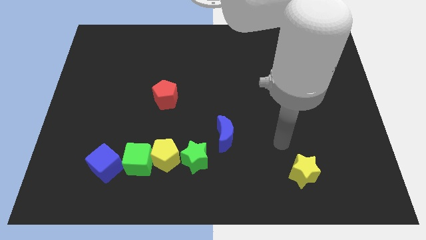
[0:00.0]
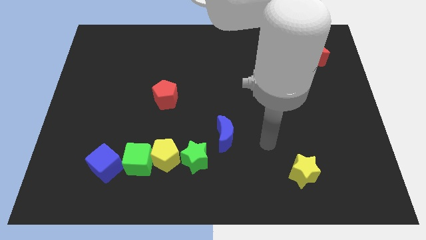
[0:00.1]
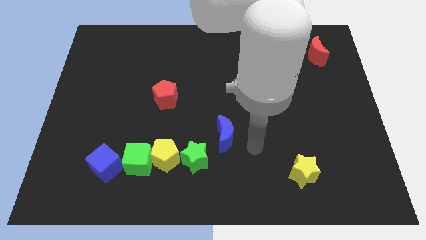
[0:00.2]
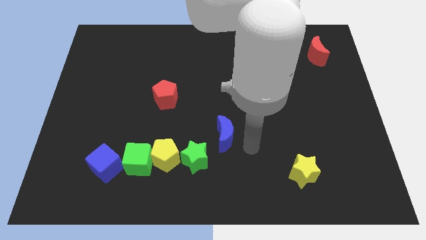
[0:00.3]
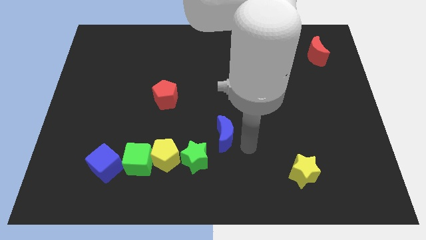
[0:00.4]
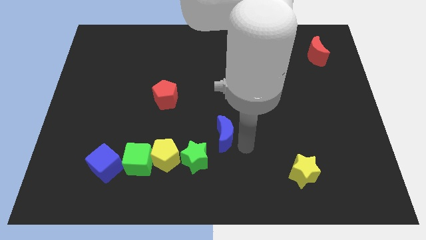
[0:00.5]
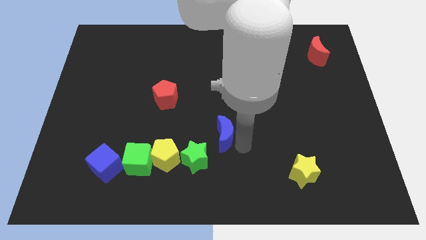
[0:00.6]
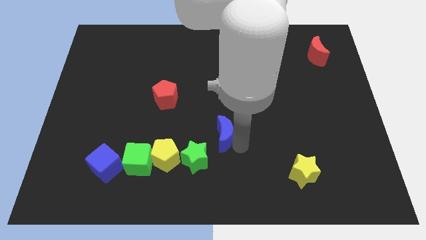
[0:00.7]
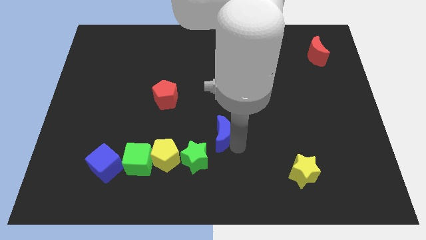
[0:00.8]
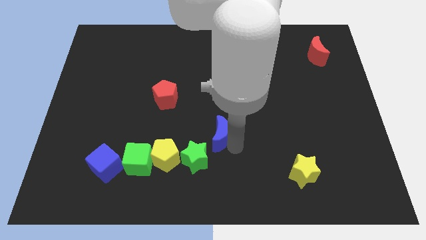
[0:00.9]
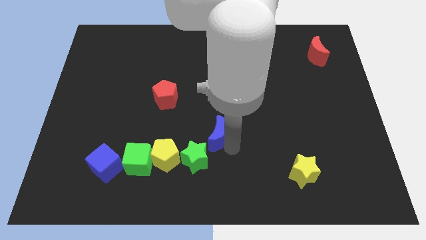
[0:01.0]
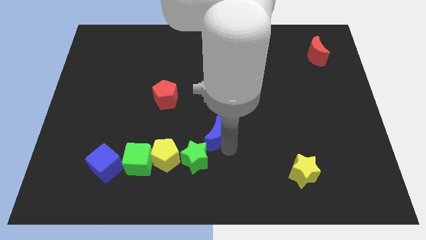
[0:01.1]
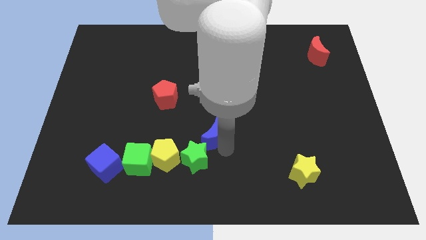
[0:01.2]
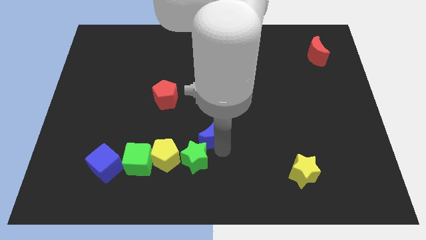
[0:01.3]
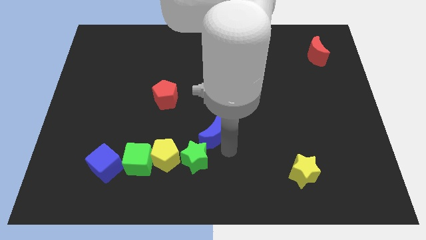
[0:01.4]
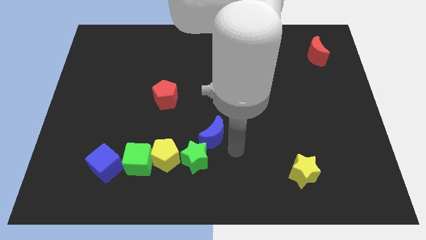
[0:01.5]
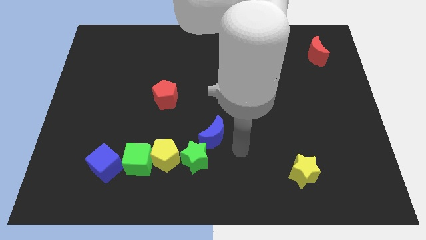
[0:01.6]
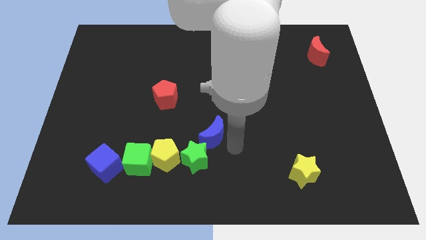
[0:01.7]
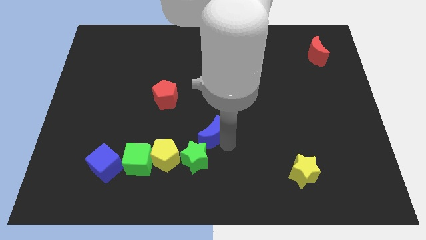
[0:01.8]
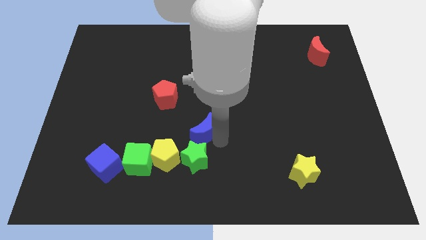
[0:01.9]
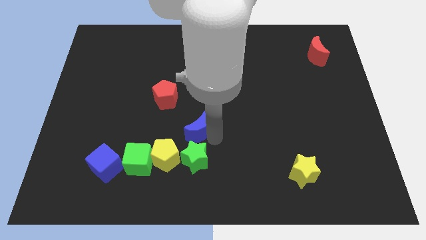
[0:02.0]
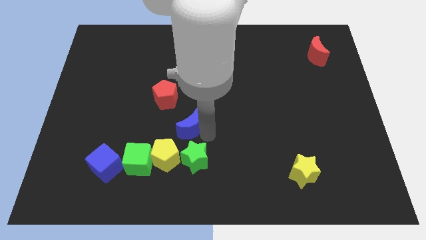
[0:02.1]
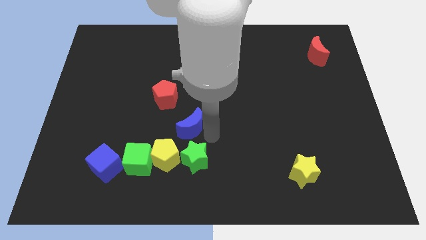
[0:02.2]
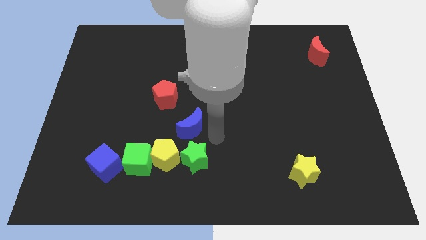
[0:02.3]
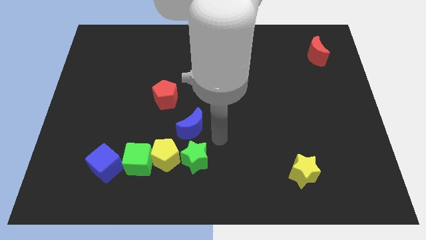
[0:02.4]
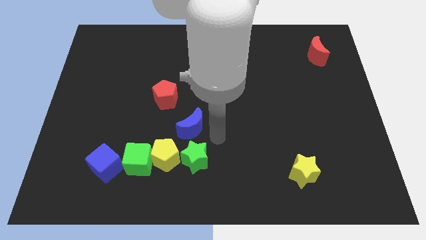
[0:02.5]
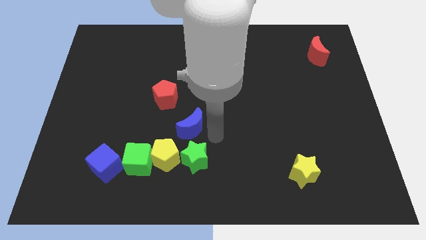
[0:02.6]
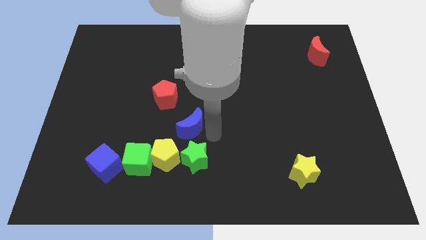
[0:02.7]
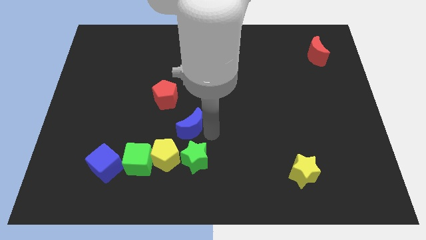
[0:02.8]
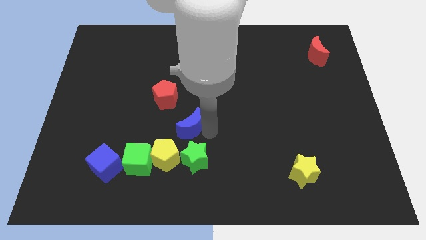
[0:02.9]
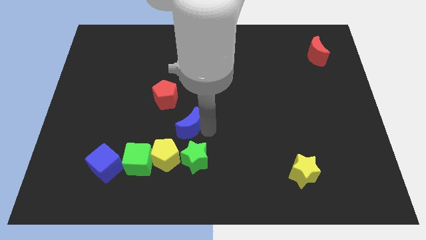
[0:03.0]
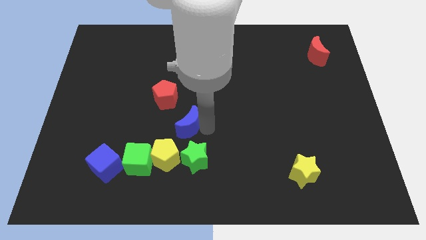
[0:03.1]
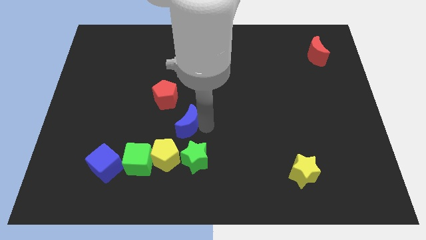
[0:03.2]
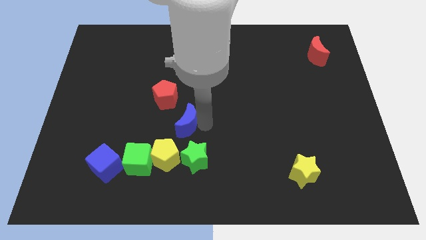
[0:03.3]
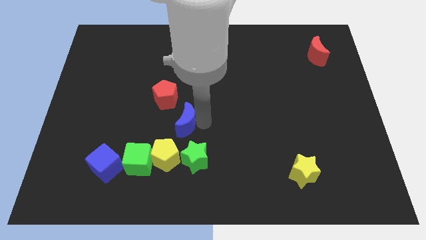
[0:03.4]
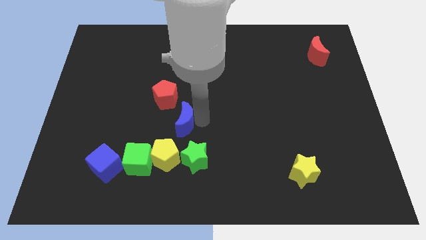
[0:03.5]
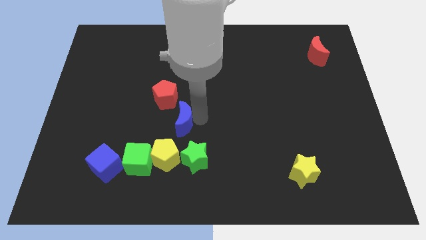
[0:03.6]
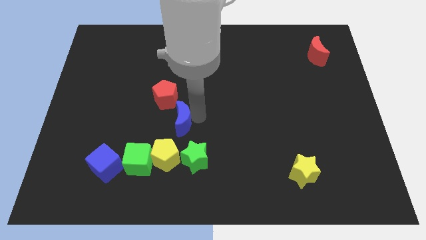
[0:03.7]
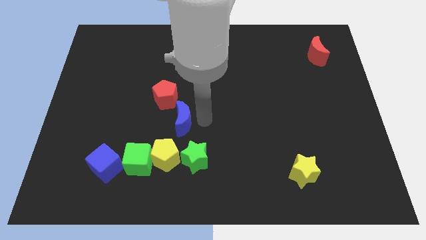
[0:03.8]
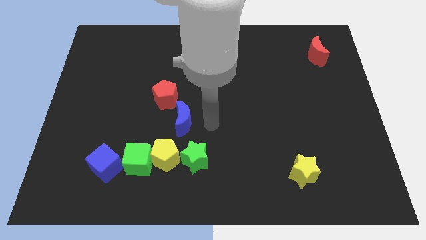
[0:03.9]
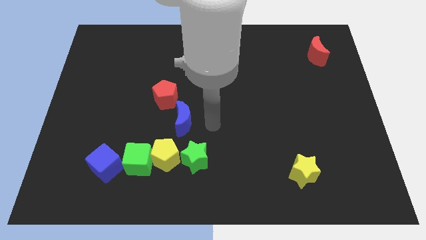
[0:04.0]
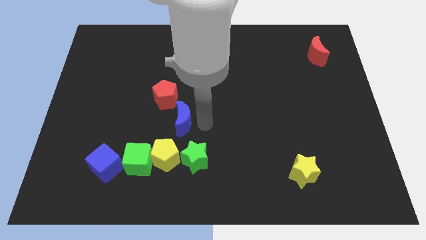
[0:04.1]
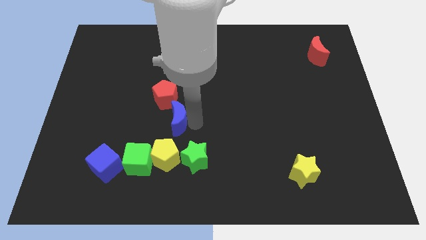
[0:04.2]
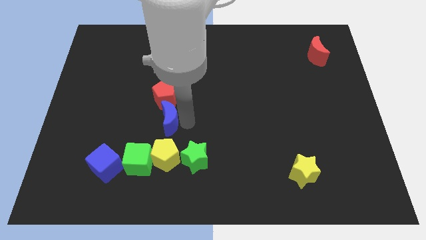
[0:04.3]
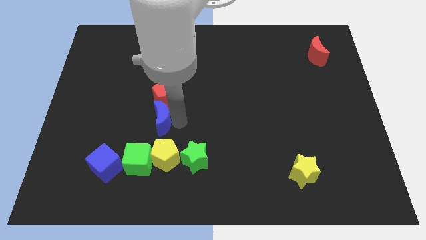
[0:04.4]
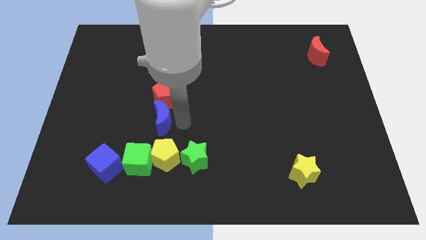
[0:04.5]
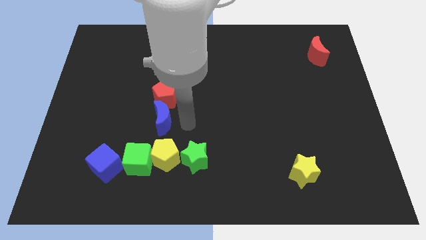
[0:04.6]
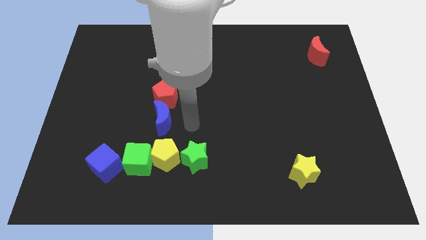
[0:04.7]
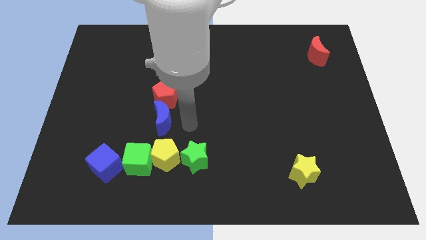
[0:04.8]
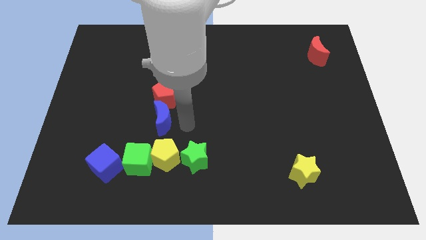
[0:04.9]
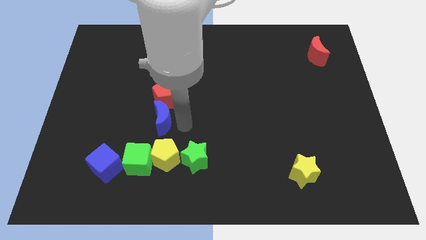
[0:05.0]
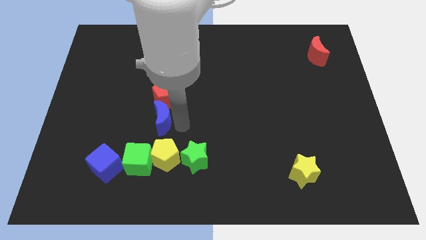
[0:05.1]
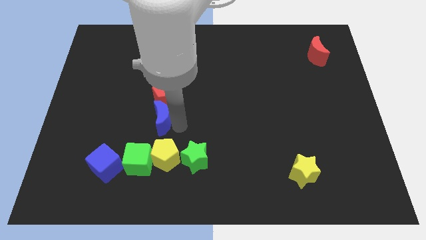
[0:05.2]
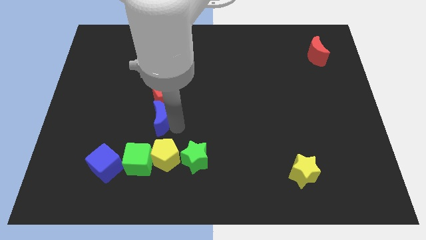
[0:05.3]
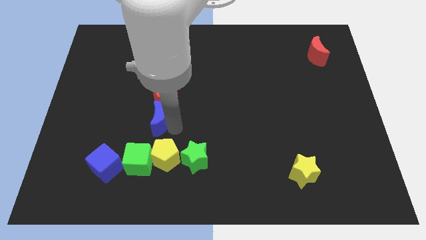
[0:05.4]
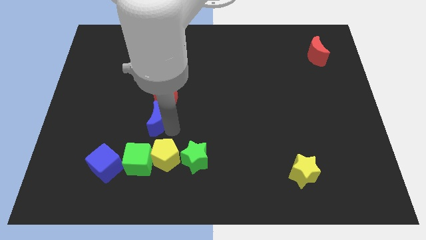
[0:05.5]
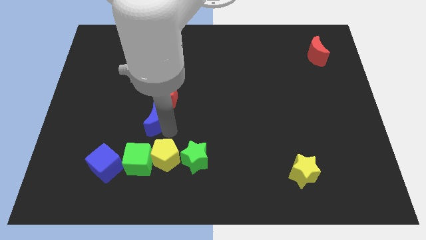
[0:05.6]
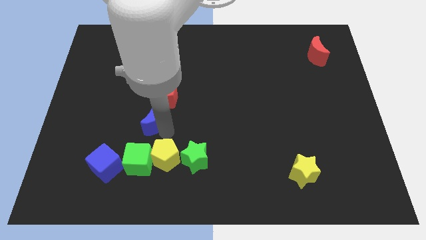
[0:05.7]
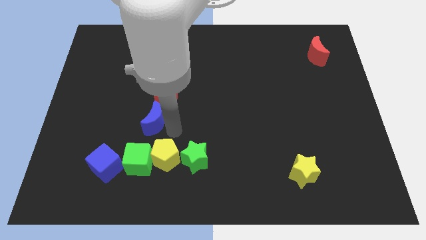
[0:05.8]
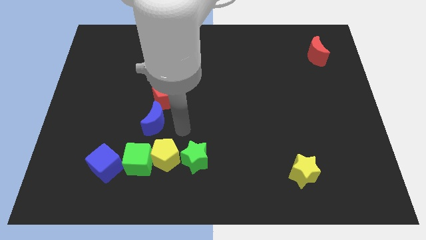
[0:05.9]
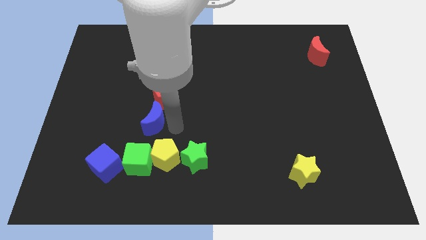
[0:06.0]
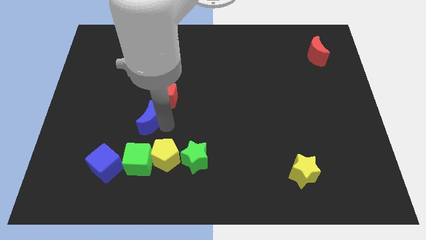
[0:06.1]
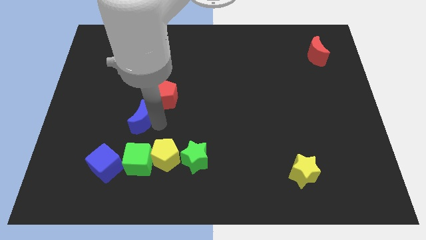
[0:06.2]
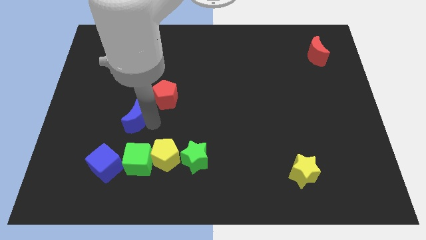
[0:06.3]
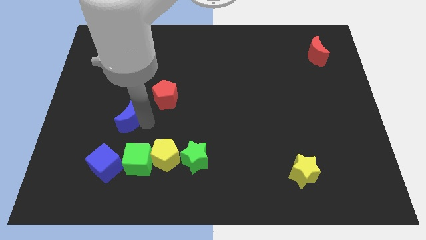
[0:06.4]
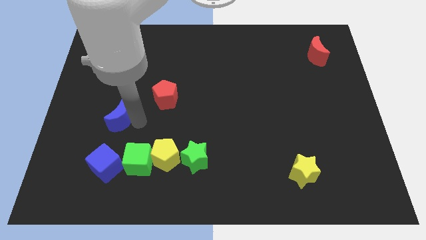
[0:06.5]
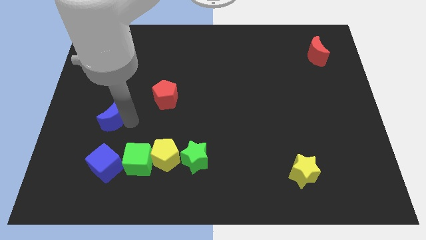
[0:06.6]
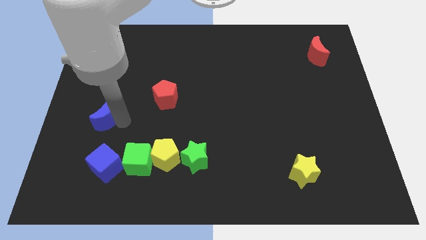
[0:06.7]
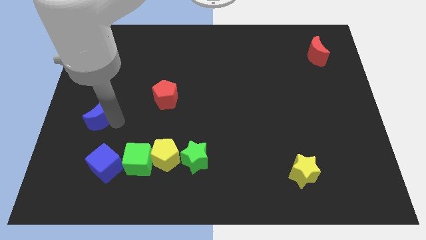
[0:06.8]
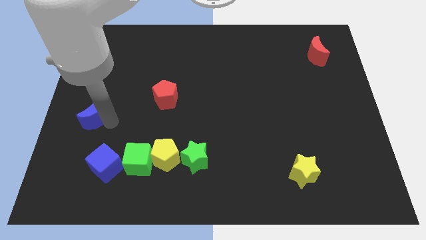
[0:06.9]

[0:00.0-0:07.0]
slide the blue moon to the left side
